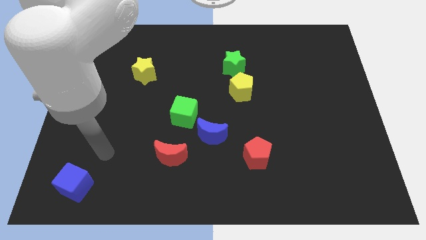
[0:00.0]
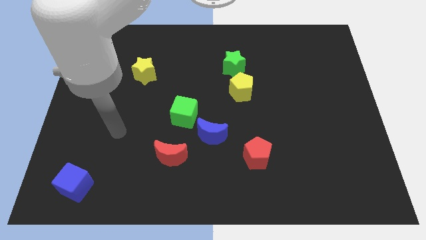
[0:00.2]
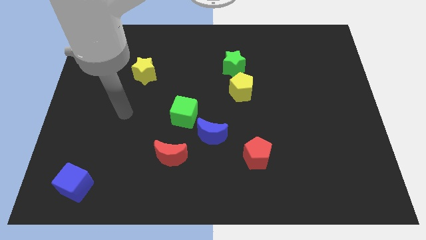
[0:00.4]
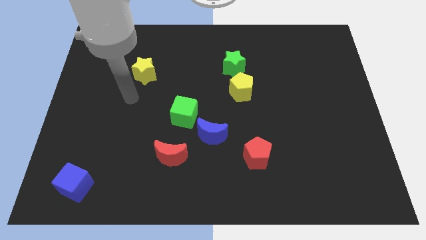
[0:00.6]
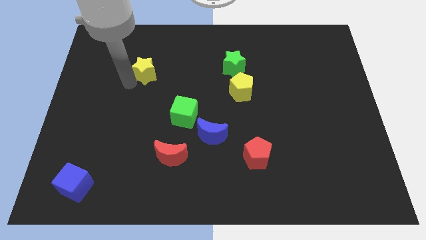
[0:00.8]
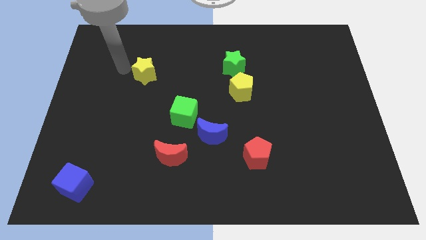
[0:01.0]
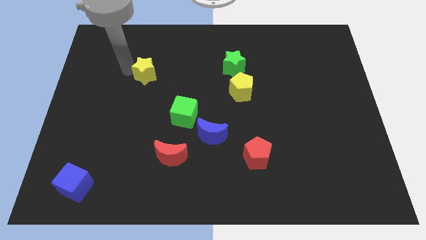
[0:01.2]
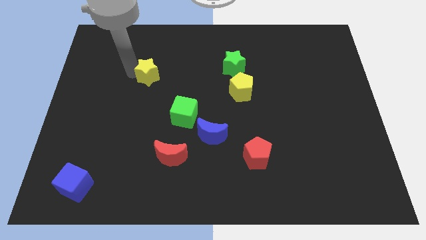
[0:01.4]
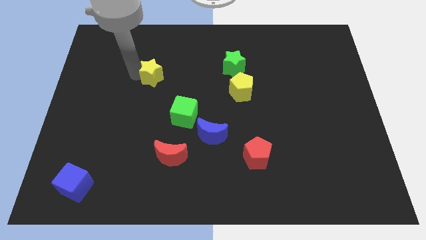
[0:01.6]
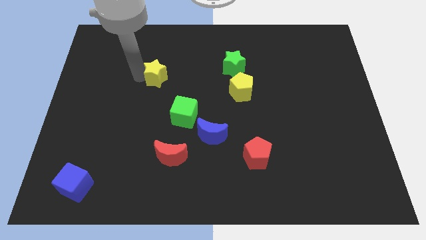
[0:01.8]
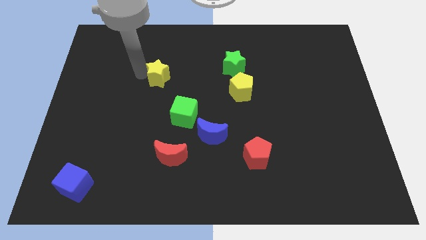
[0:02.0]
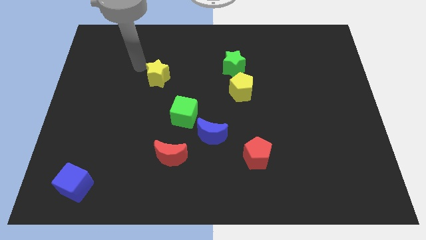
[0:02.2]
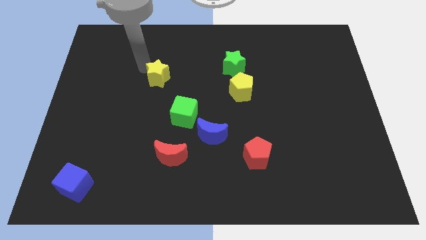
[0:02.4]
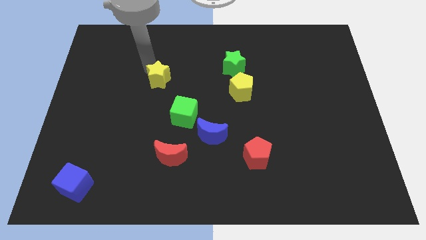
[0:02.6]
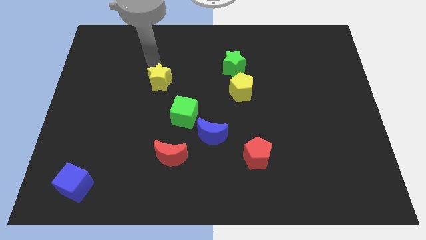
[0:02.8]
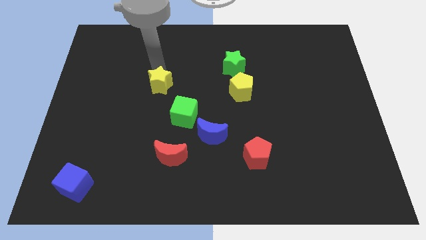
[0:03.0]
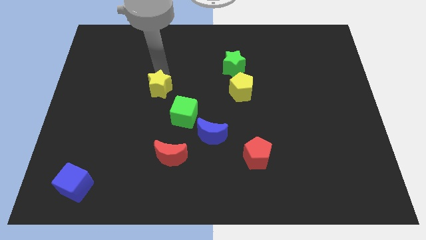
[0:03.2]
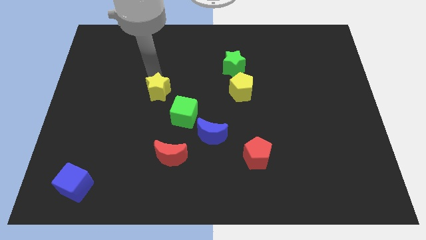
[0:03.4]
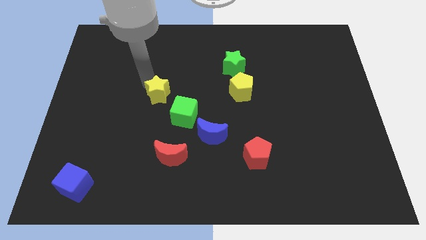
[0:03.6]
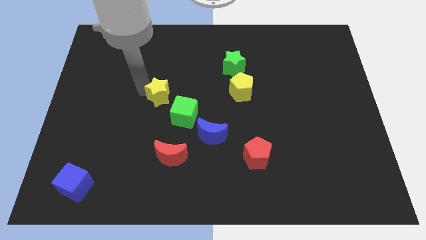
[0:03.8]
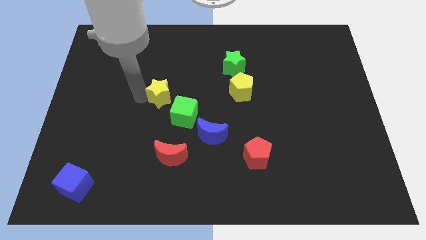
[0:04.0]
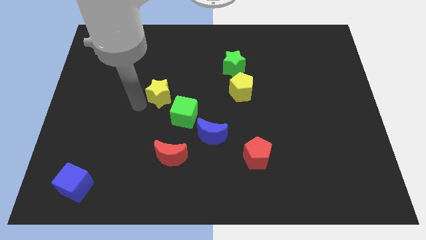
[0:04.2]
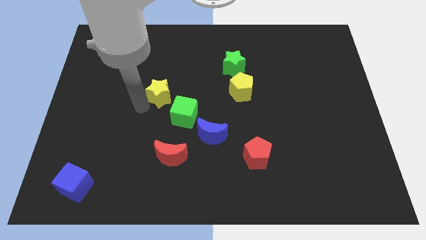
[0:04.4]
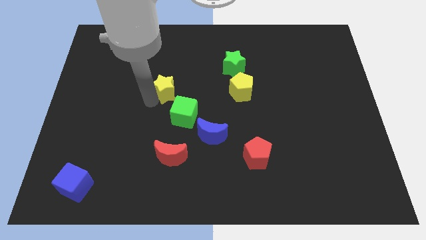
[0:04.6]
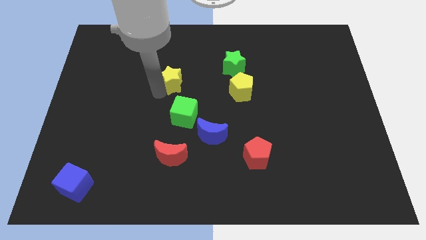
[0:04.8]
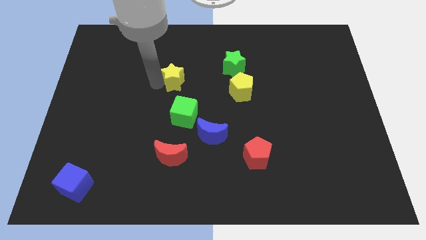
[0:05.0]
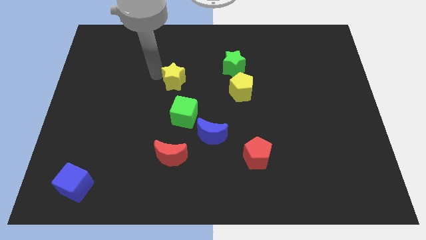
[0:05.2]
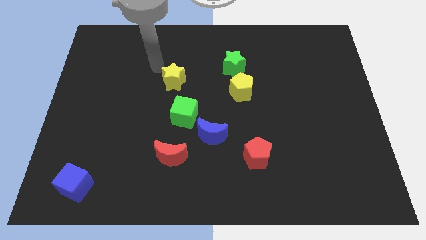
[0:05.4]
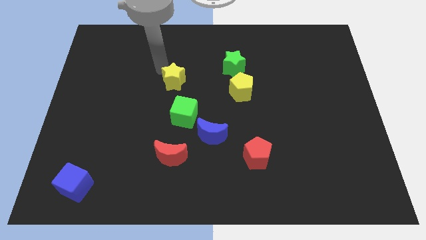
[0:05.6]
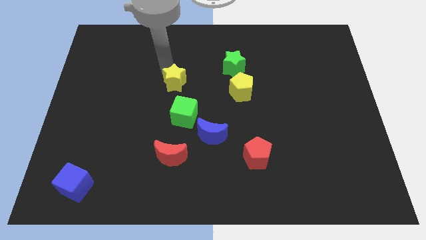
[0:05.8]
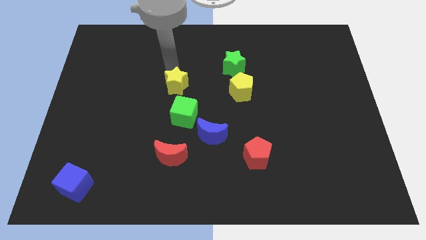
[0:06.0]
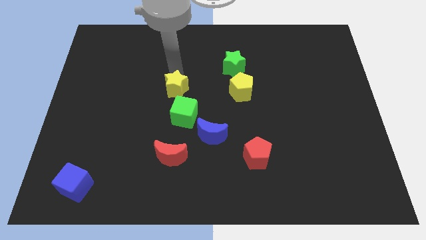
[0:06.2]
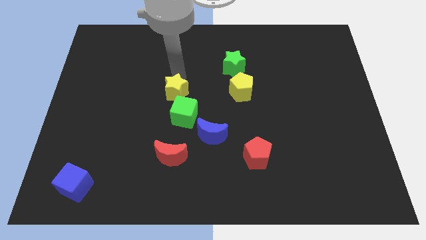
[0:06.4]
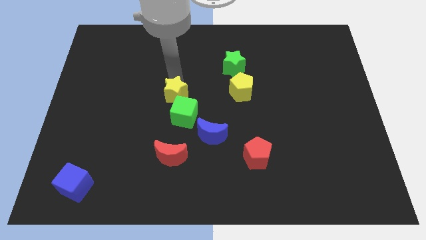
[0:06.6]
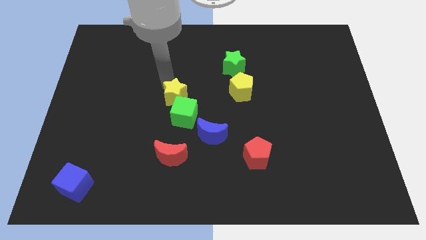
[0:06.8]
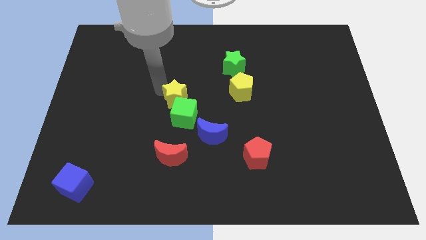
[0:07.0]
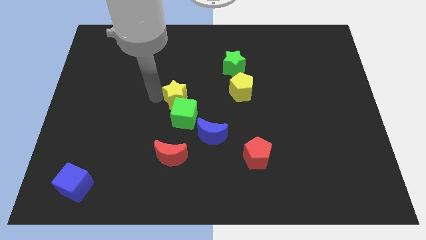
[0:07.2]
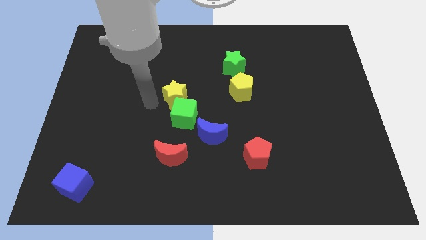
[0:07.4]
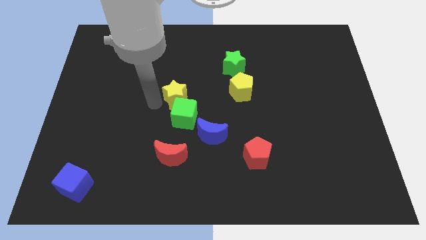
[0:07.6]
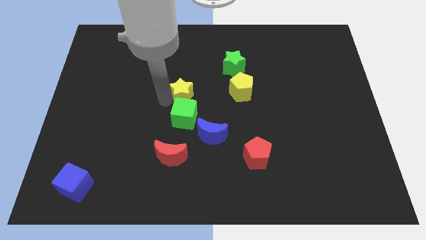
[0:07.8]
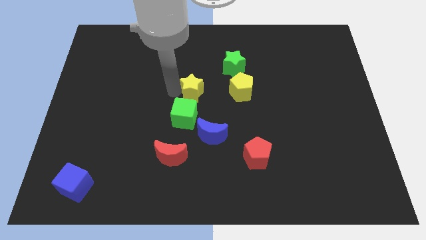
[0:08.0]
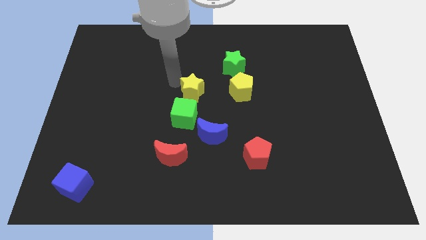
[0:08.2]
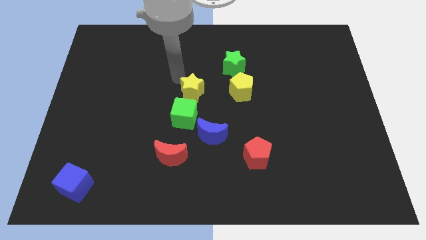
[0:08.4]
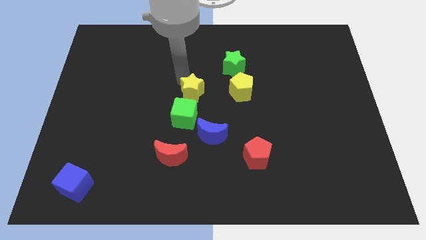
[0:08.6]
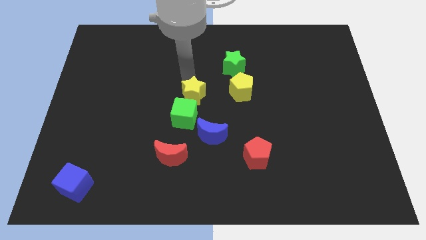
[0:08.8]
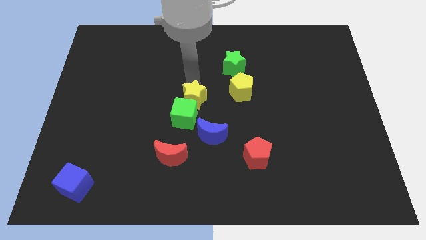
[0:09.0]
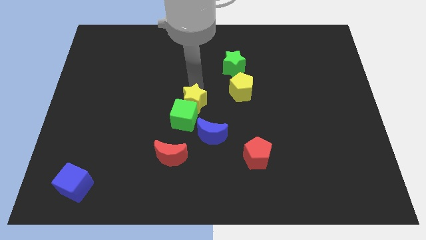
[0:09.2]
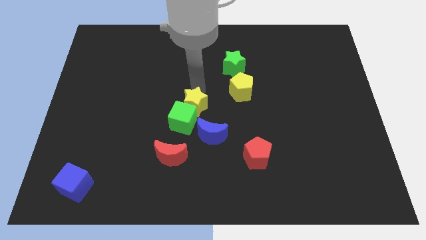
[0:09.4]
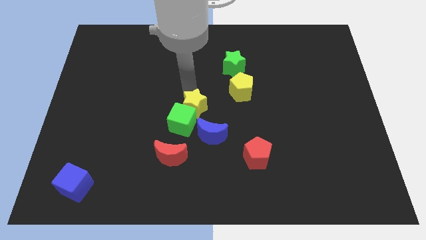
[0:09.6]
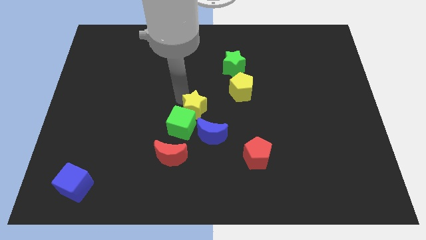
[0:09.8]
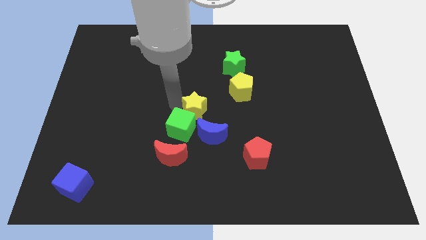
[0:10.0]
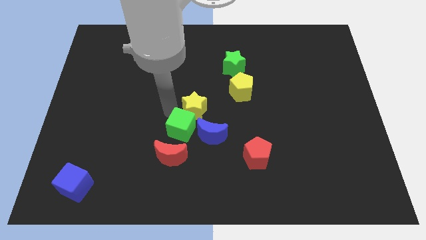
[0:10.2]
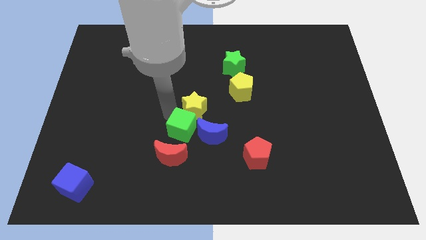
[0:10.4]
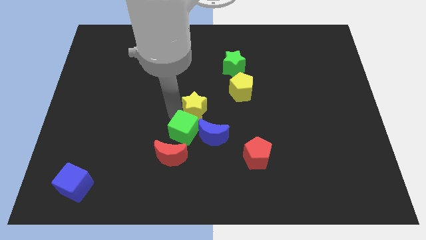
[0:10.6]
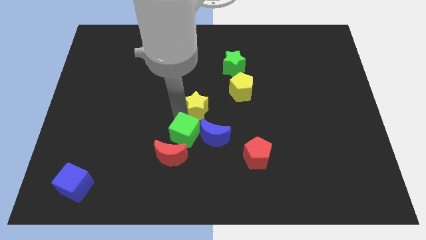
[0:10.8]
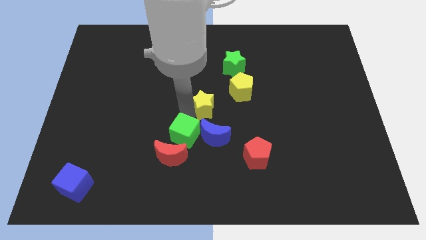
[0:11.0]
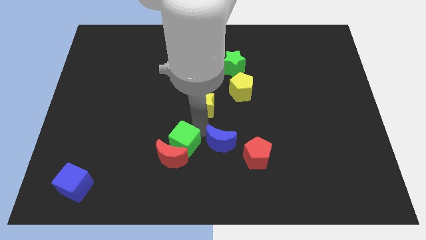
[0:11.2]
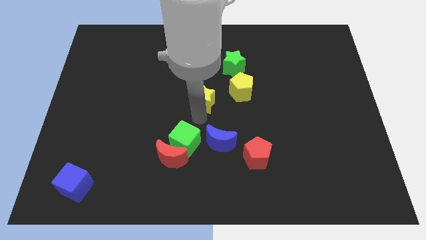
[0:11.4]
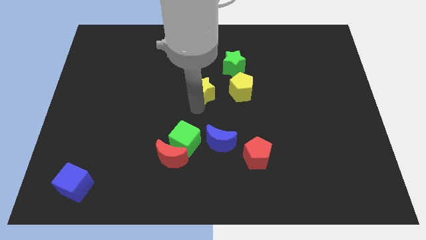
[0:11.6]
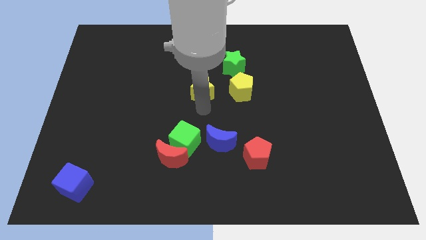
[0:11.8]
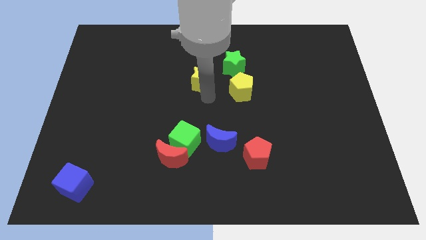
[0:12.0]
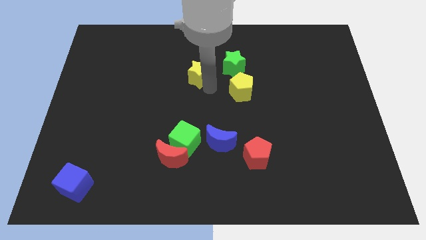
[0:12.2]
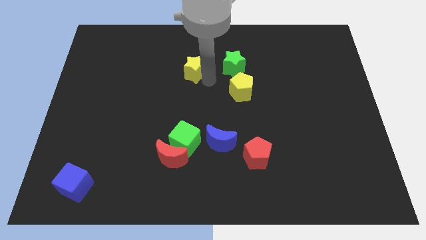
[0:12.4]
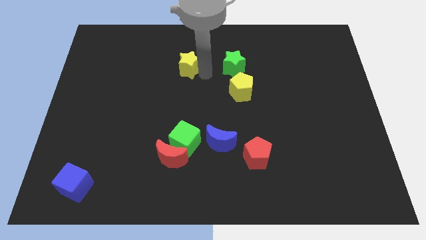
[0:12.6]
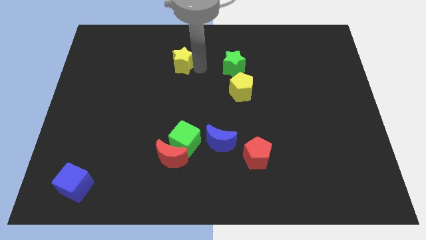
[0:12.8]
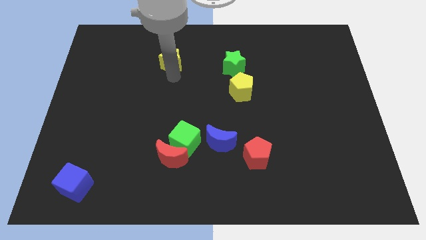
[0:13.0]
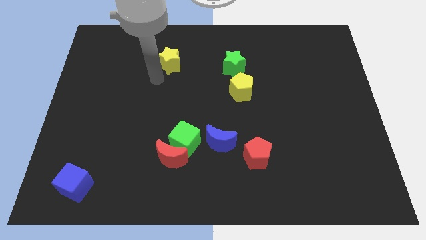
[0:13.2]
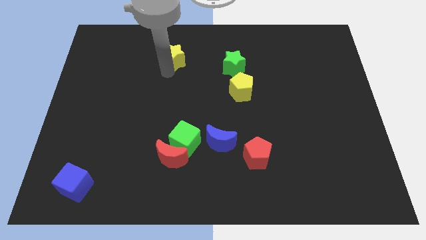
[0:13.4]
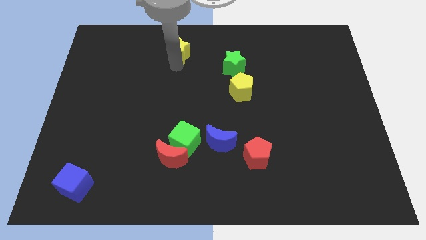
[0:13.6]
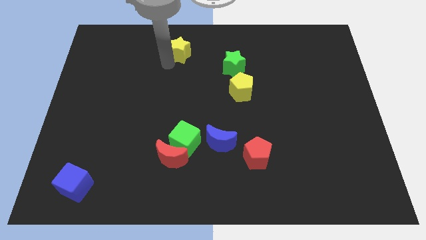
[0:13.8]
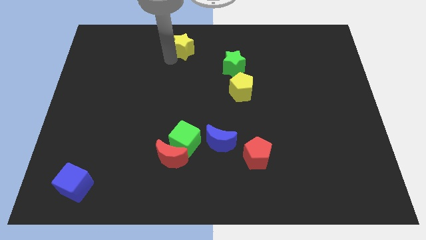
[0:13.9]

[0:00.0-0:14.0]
move the yellow star to the towards your base
